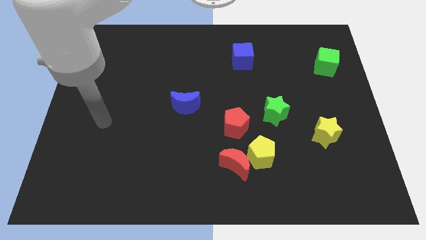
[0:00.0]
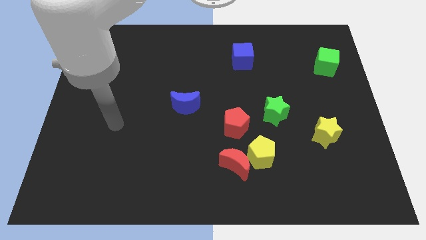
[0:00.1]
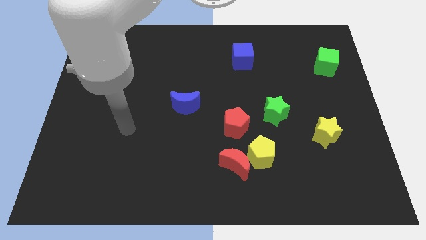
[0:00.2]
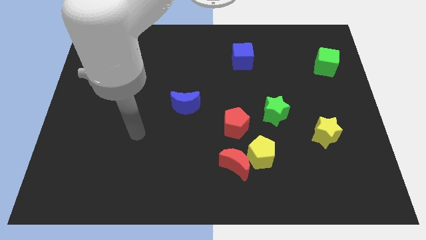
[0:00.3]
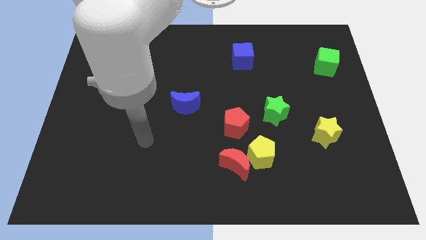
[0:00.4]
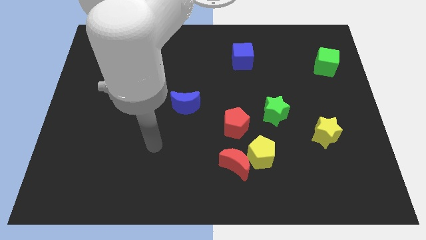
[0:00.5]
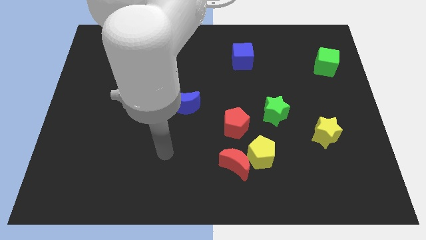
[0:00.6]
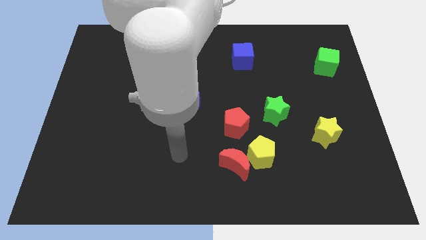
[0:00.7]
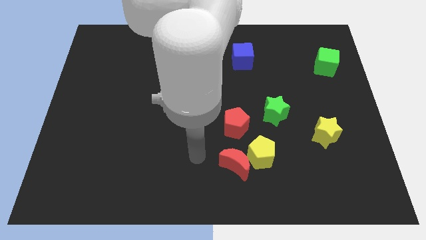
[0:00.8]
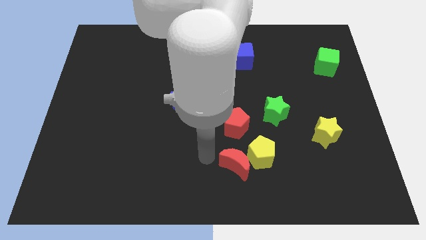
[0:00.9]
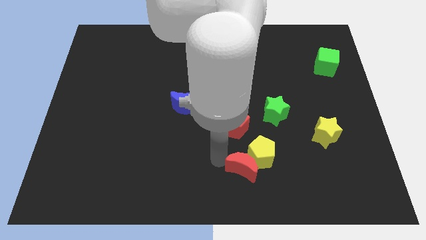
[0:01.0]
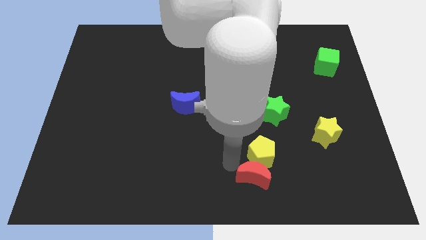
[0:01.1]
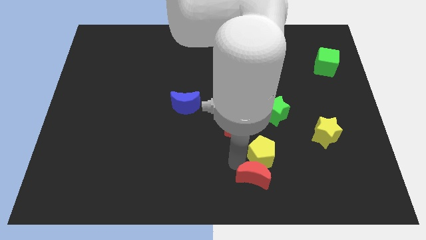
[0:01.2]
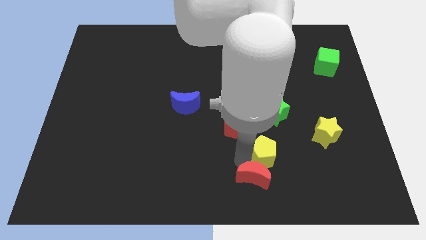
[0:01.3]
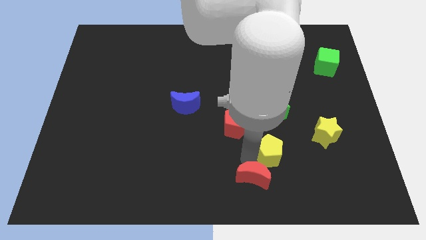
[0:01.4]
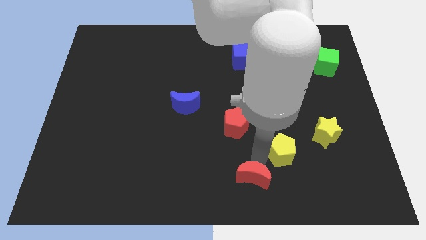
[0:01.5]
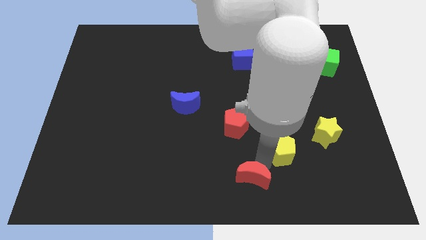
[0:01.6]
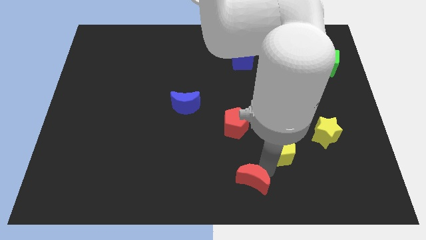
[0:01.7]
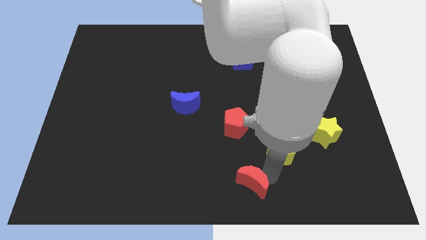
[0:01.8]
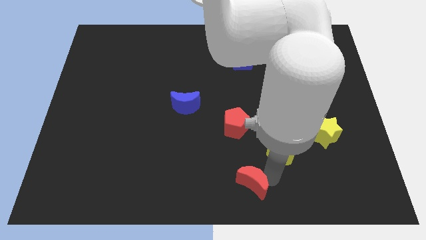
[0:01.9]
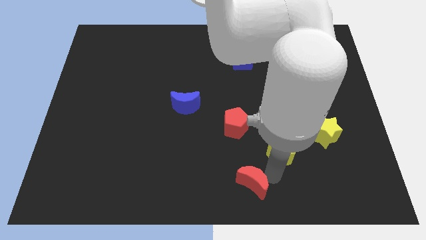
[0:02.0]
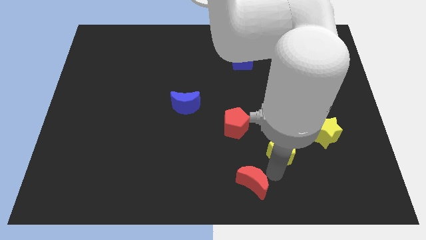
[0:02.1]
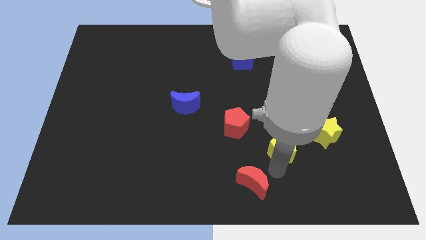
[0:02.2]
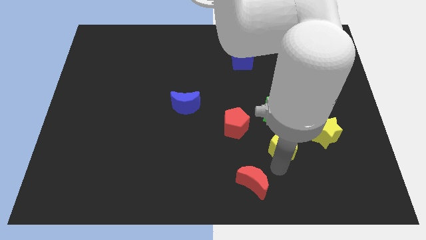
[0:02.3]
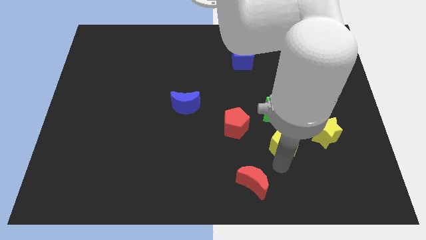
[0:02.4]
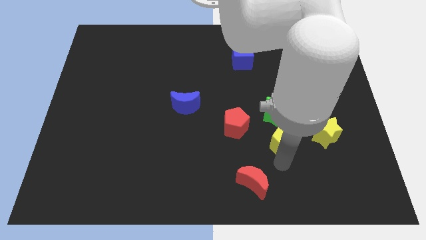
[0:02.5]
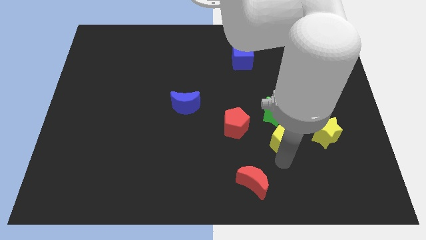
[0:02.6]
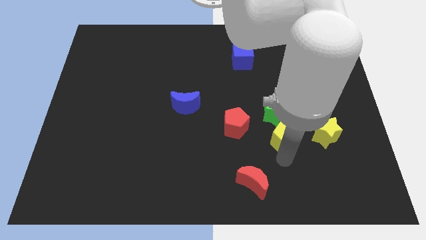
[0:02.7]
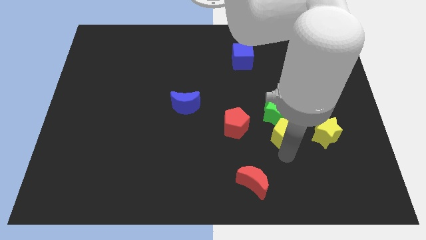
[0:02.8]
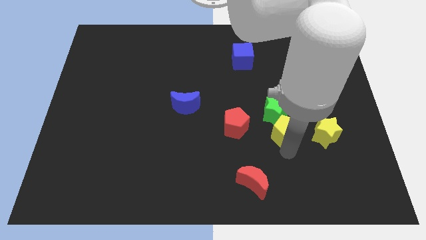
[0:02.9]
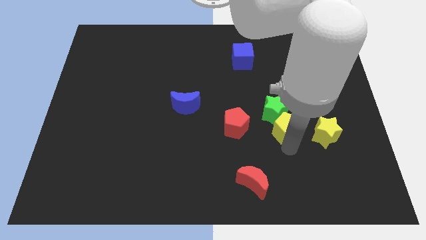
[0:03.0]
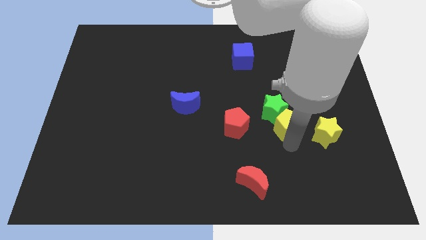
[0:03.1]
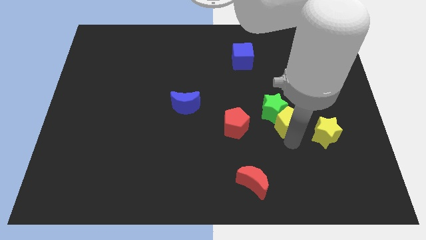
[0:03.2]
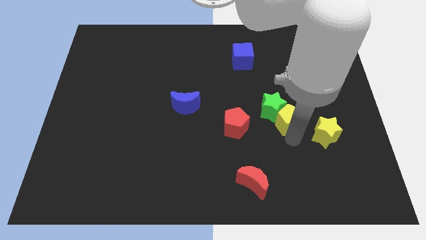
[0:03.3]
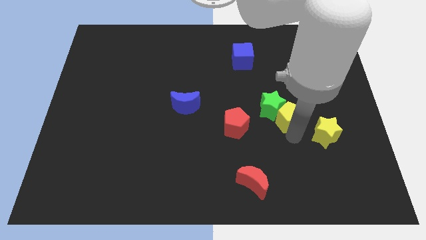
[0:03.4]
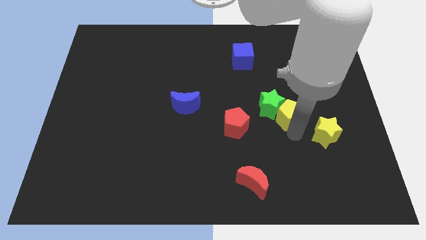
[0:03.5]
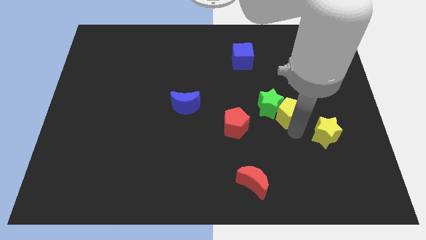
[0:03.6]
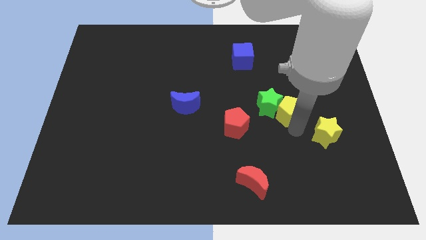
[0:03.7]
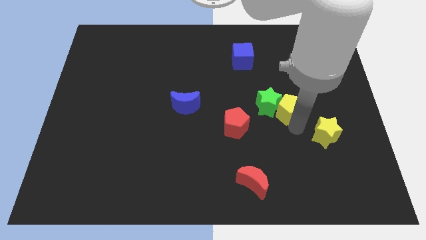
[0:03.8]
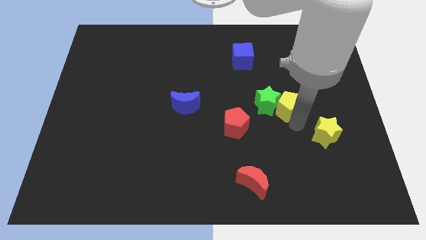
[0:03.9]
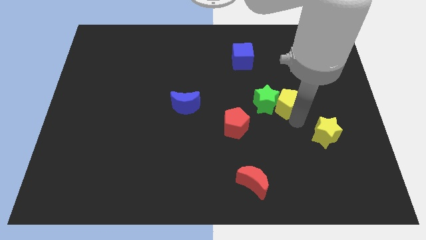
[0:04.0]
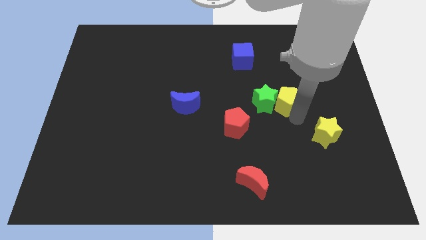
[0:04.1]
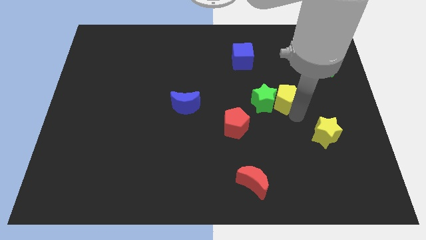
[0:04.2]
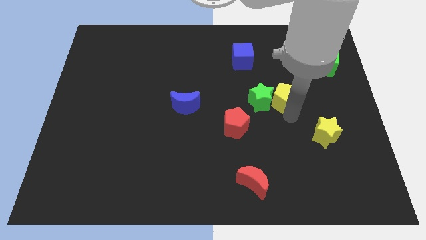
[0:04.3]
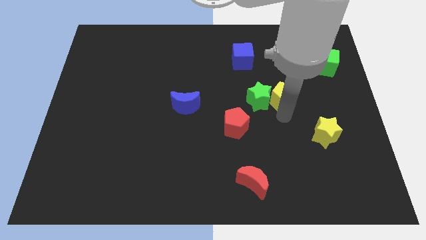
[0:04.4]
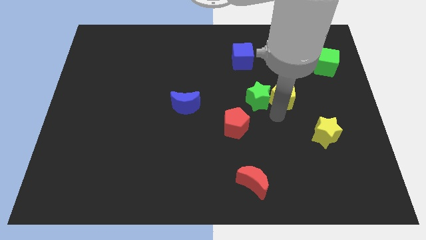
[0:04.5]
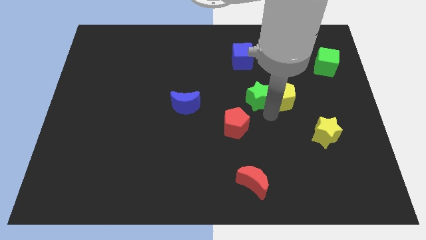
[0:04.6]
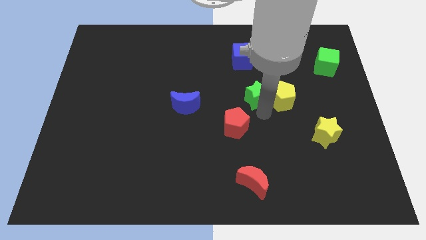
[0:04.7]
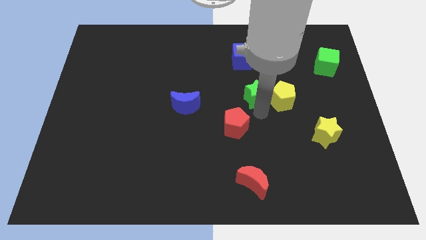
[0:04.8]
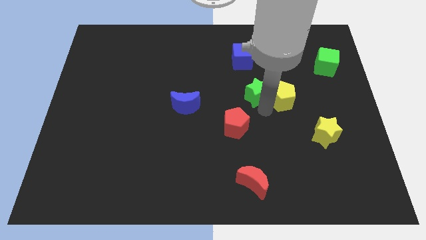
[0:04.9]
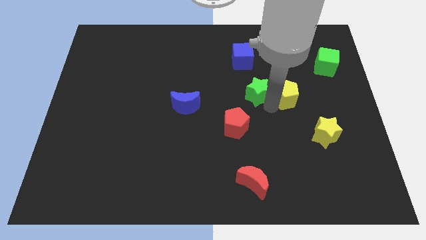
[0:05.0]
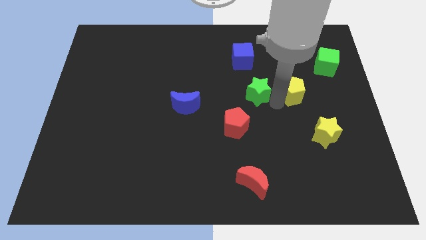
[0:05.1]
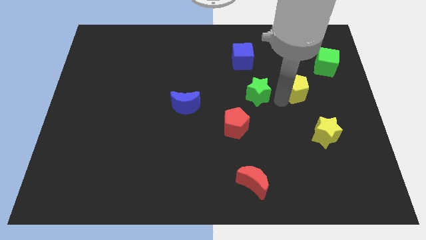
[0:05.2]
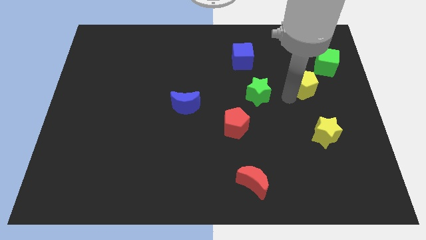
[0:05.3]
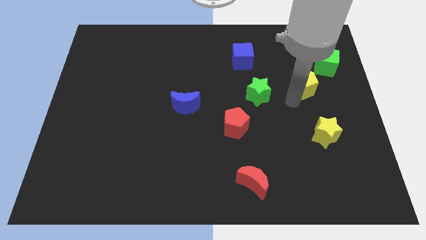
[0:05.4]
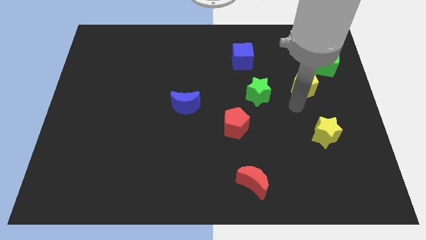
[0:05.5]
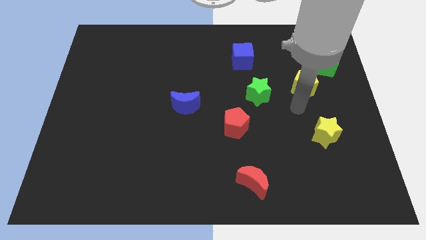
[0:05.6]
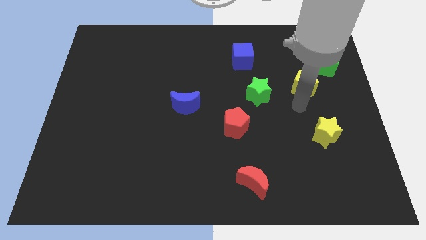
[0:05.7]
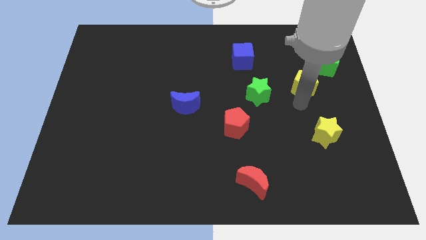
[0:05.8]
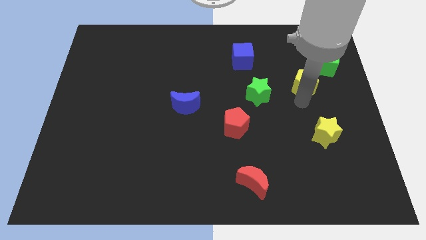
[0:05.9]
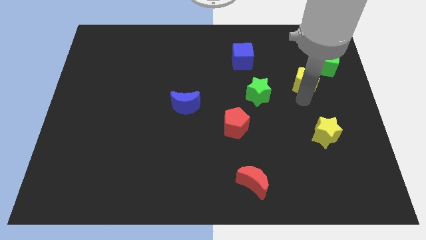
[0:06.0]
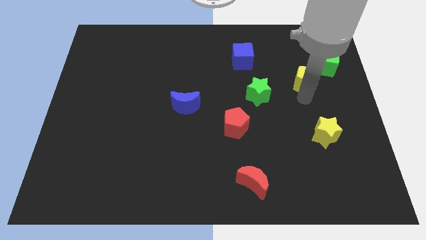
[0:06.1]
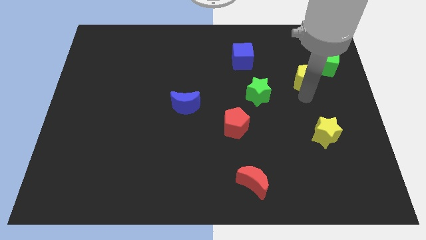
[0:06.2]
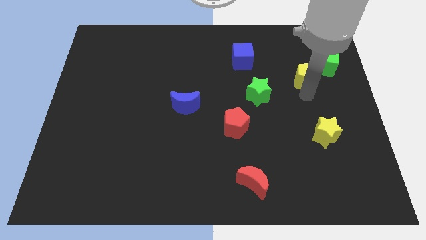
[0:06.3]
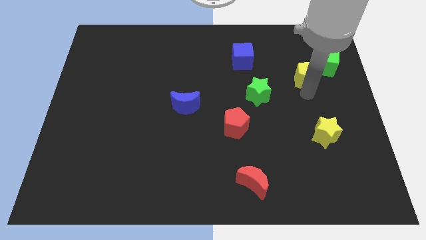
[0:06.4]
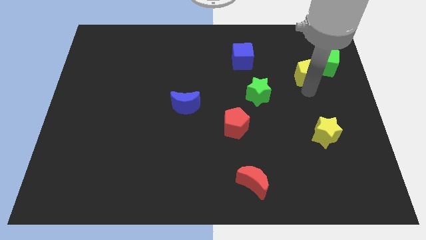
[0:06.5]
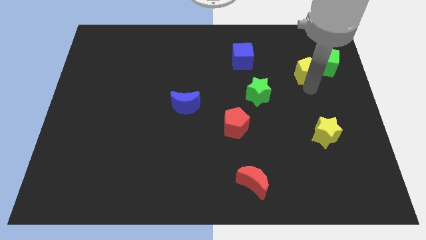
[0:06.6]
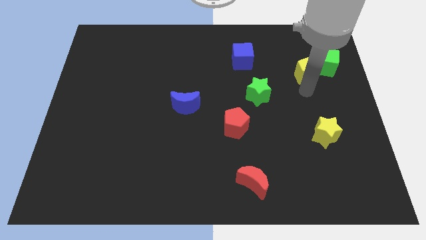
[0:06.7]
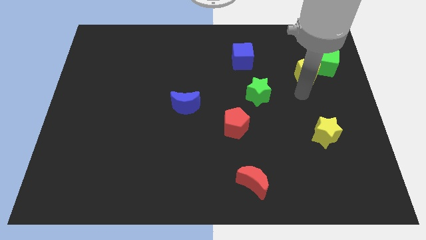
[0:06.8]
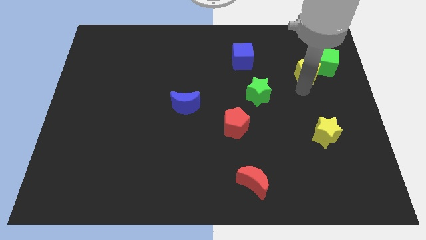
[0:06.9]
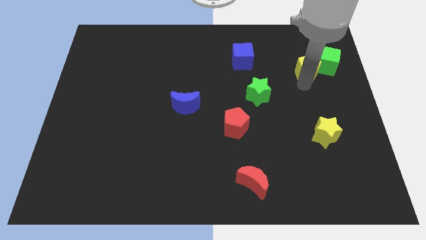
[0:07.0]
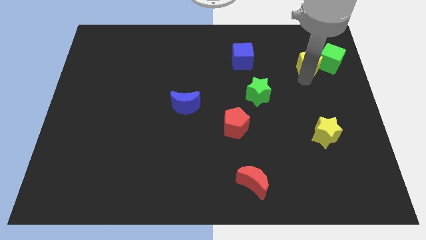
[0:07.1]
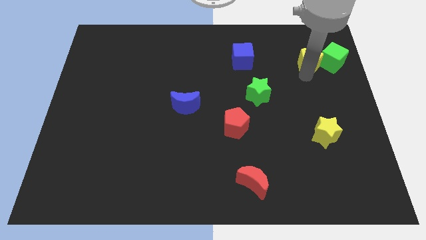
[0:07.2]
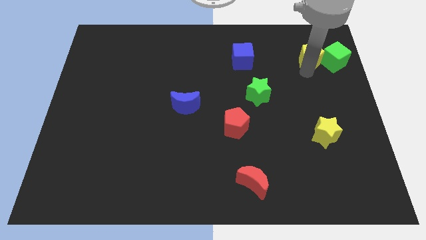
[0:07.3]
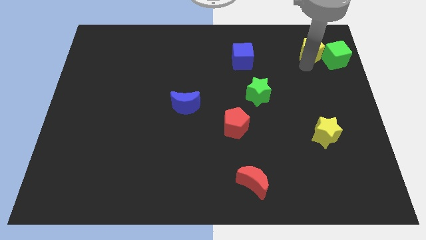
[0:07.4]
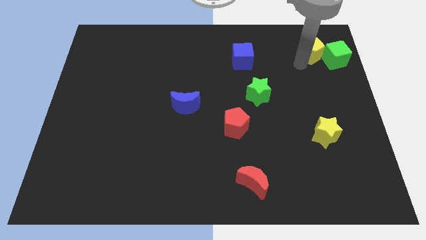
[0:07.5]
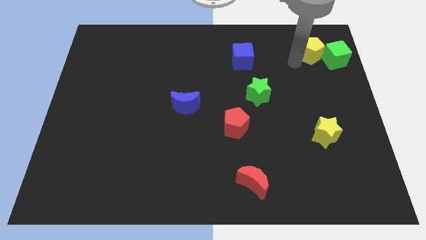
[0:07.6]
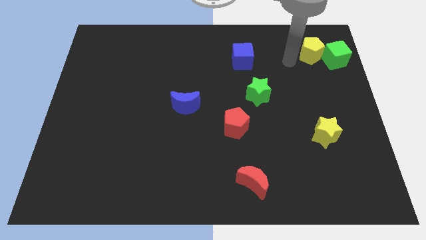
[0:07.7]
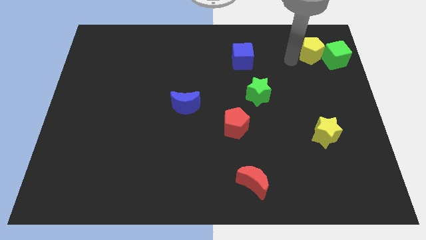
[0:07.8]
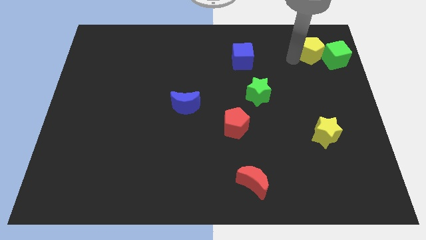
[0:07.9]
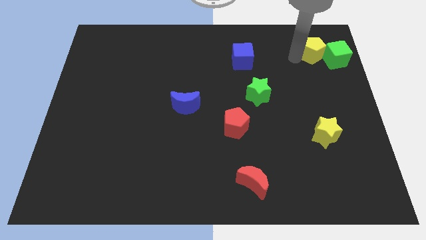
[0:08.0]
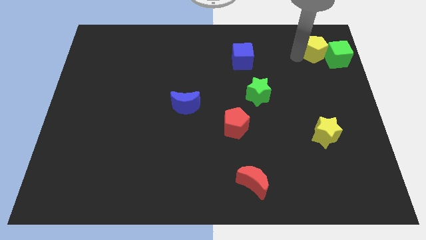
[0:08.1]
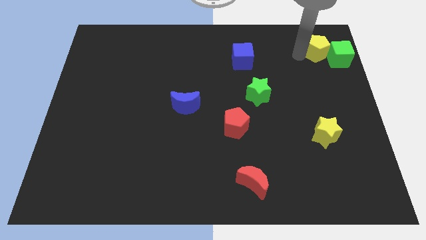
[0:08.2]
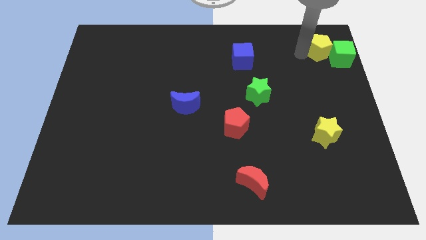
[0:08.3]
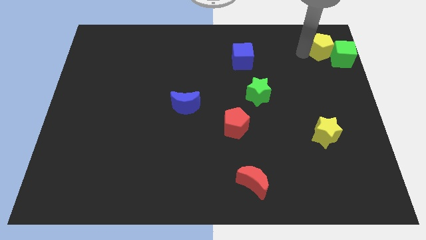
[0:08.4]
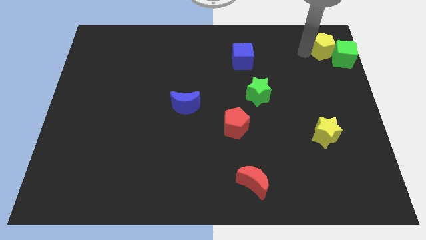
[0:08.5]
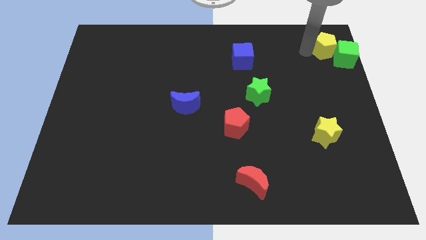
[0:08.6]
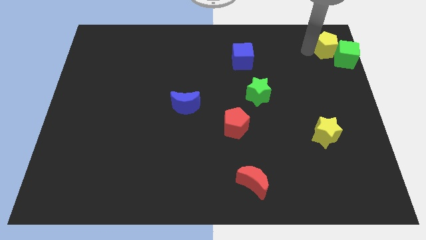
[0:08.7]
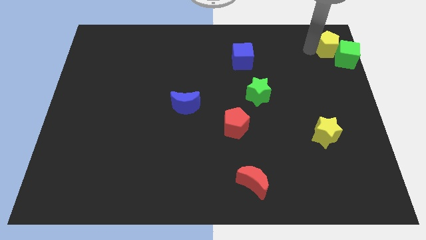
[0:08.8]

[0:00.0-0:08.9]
slide the yellow pentagon to the top right corner
